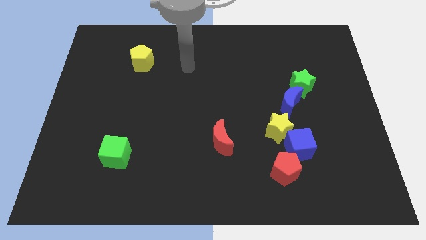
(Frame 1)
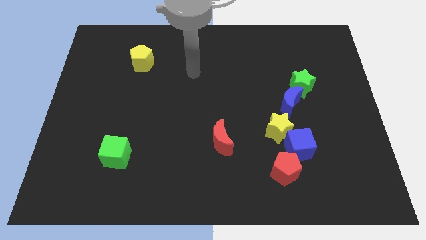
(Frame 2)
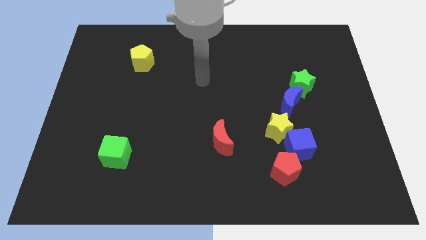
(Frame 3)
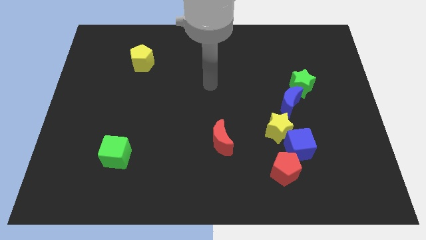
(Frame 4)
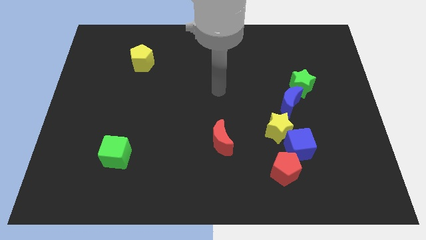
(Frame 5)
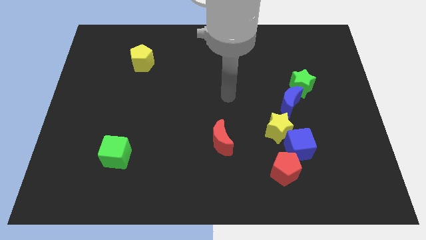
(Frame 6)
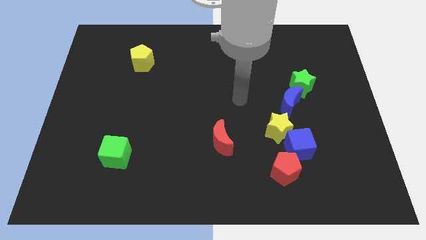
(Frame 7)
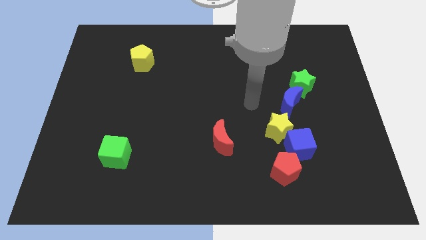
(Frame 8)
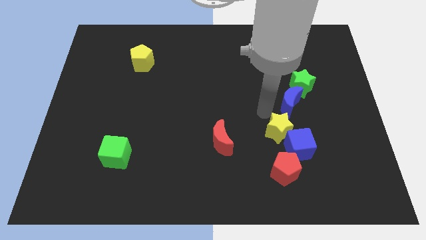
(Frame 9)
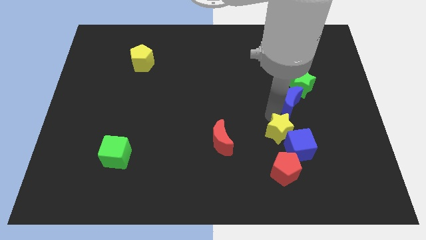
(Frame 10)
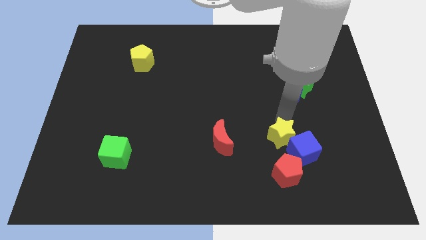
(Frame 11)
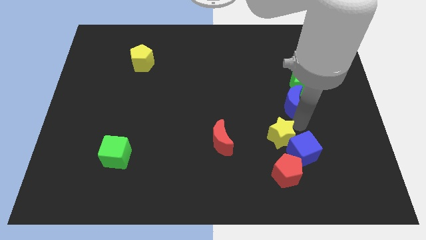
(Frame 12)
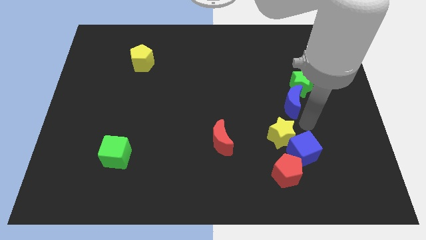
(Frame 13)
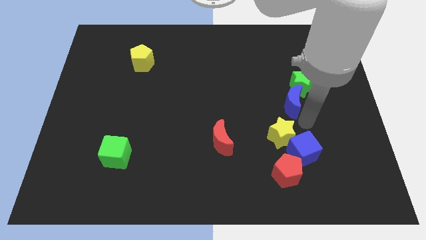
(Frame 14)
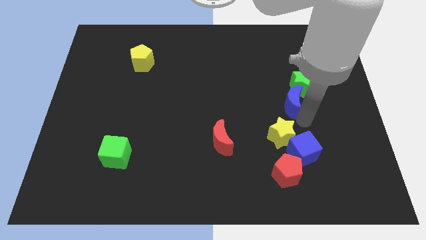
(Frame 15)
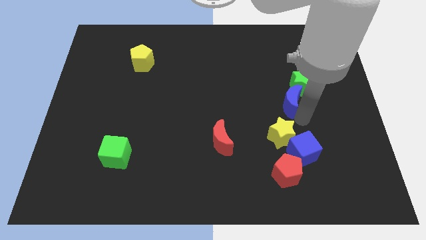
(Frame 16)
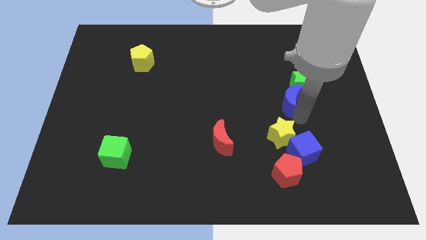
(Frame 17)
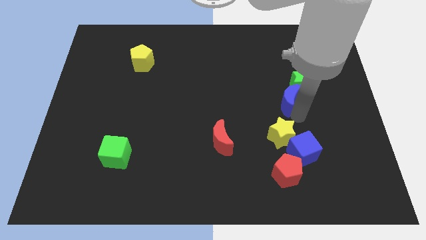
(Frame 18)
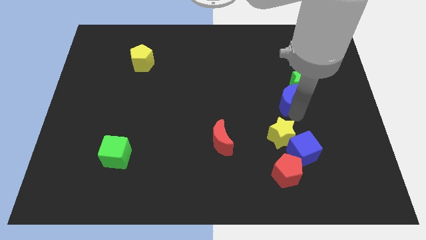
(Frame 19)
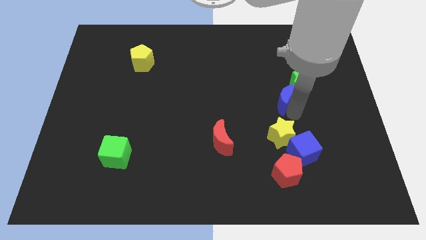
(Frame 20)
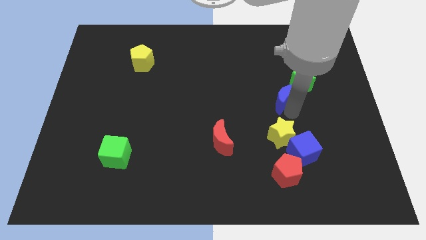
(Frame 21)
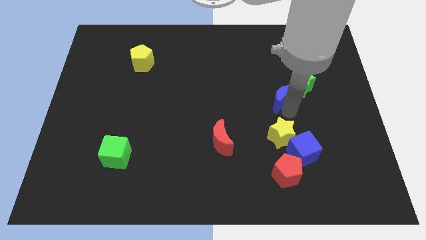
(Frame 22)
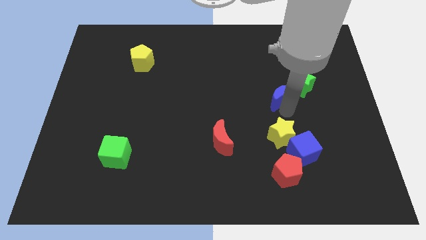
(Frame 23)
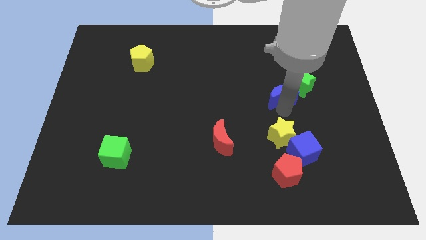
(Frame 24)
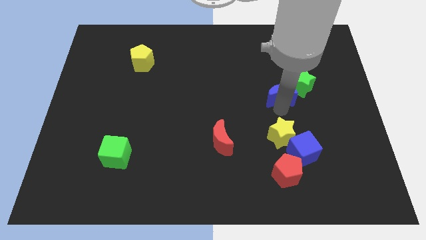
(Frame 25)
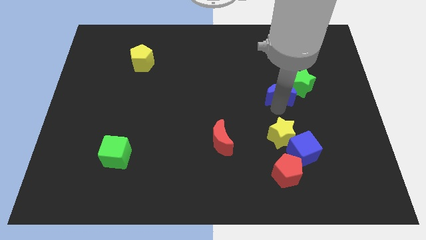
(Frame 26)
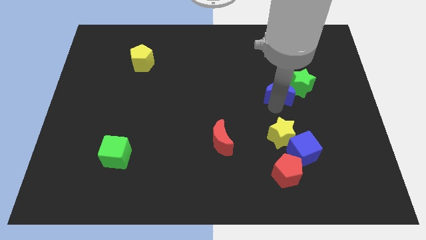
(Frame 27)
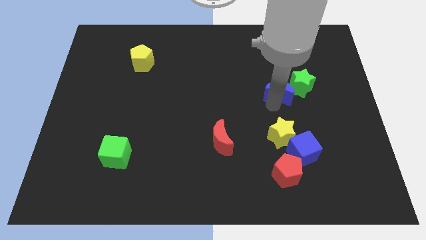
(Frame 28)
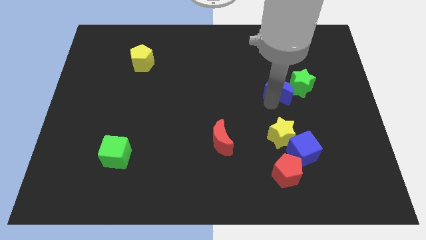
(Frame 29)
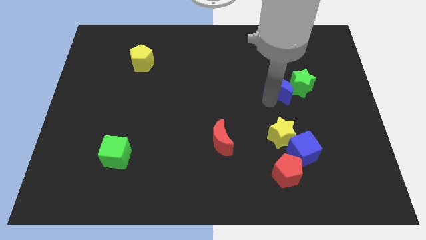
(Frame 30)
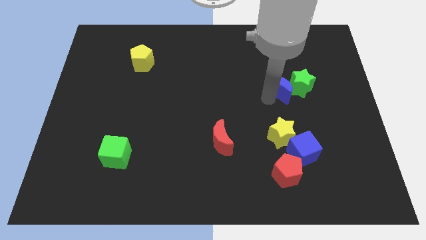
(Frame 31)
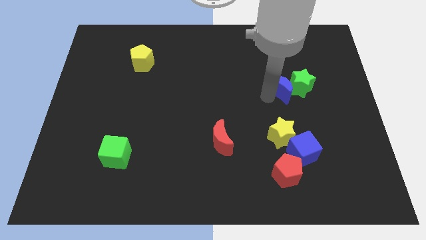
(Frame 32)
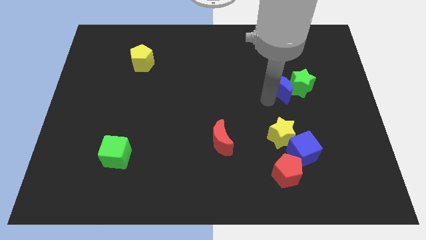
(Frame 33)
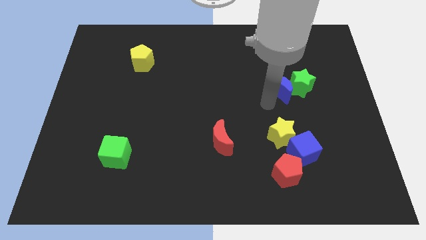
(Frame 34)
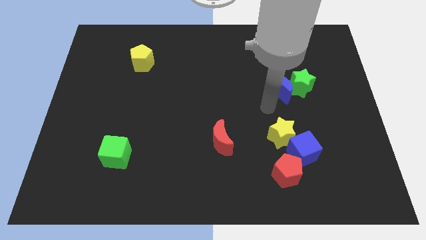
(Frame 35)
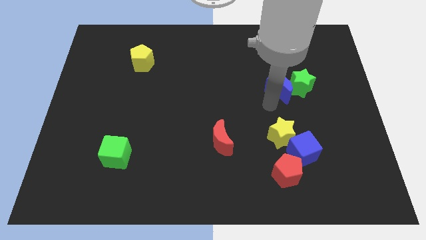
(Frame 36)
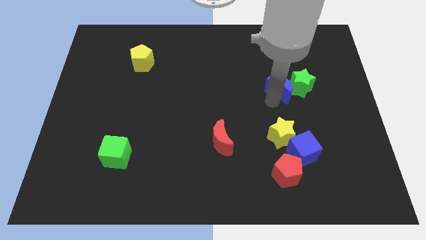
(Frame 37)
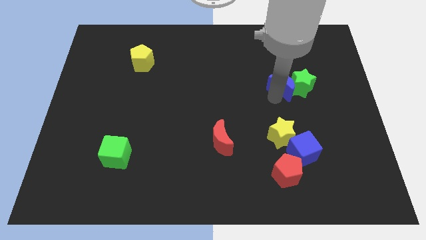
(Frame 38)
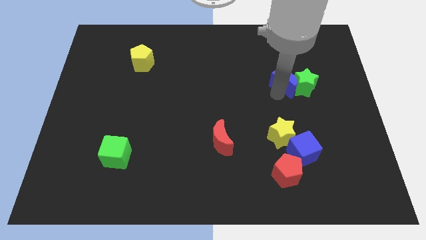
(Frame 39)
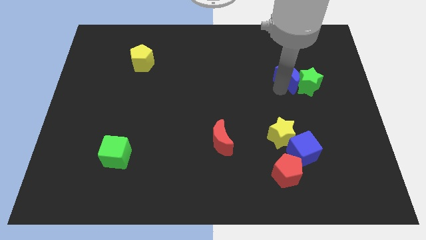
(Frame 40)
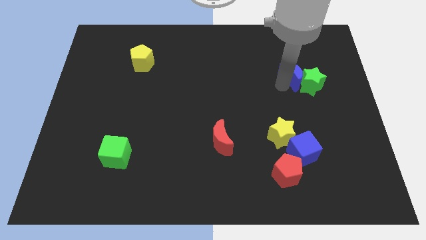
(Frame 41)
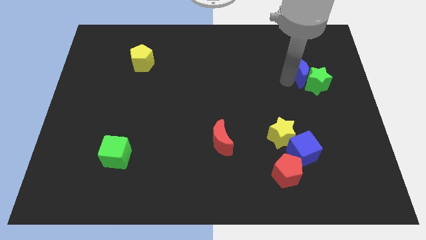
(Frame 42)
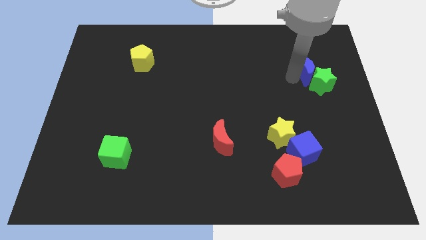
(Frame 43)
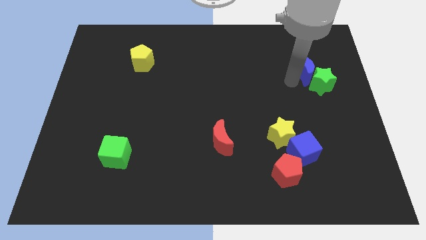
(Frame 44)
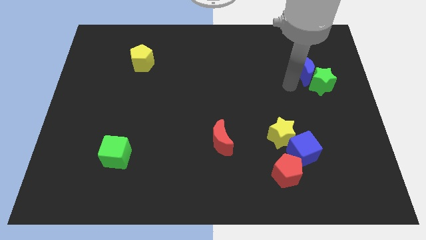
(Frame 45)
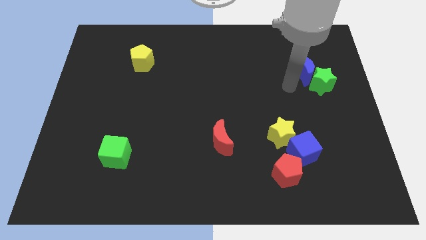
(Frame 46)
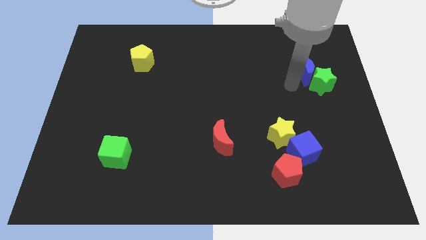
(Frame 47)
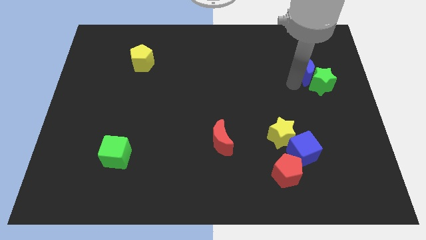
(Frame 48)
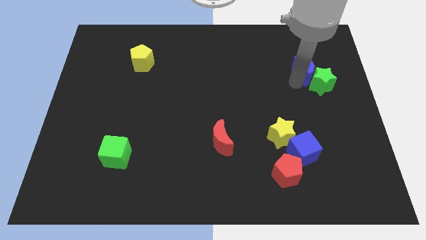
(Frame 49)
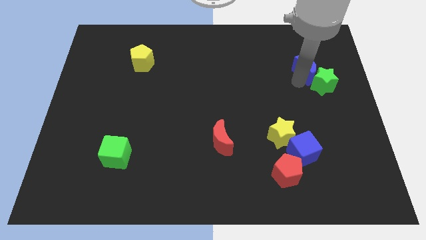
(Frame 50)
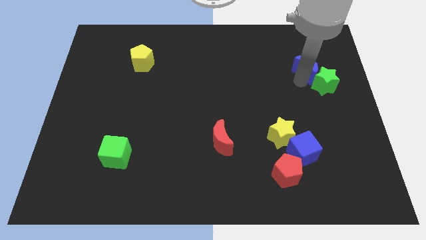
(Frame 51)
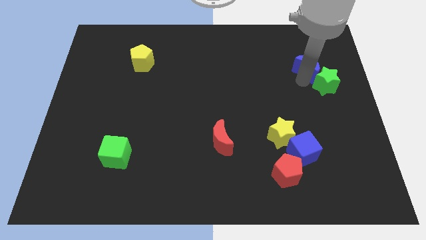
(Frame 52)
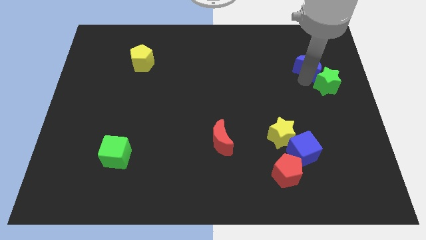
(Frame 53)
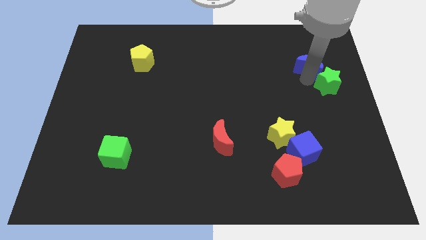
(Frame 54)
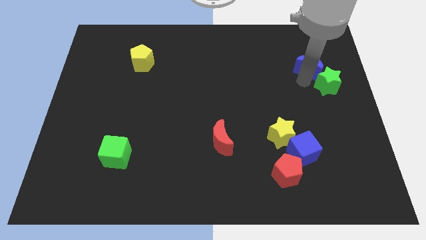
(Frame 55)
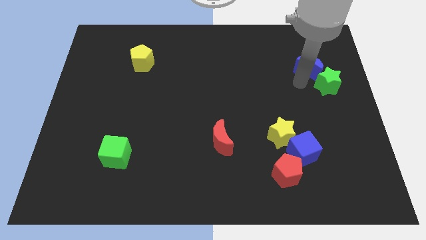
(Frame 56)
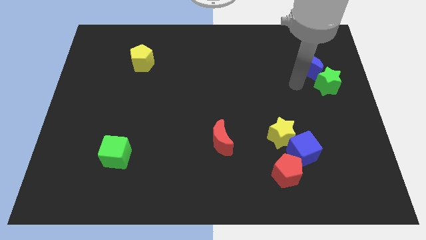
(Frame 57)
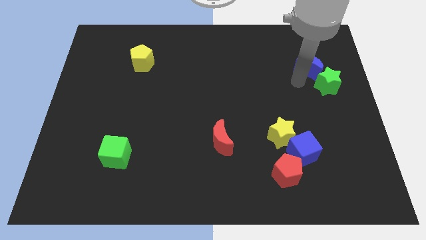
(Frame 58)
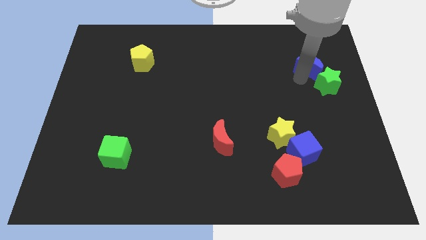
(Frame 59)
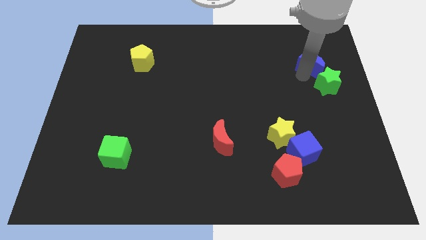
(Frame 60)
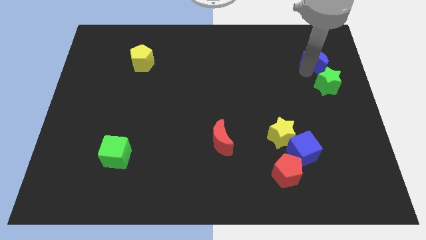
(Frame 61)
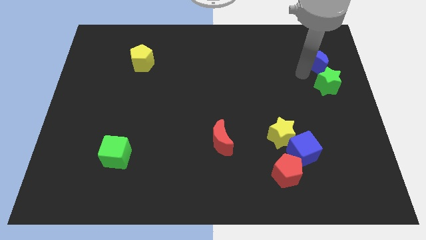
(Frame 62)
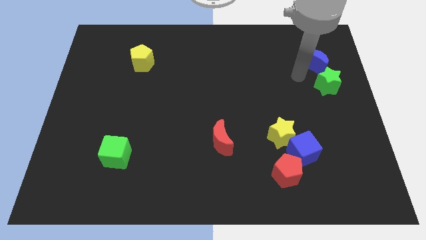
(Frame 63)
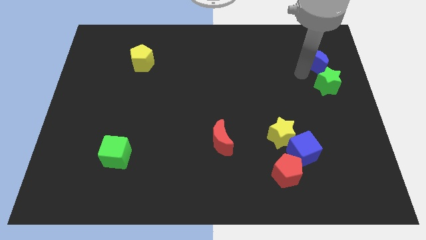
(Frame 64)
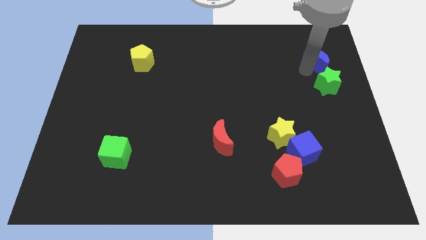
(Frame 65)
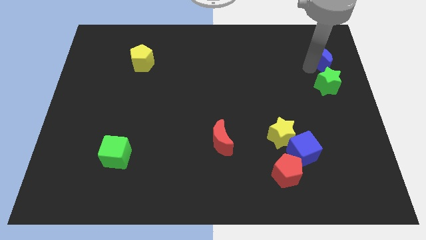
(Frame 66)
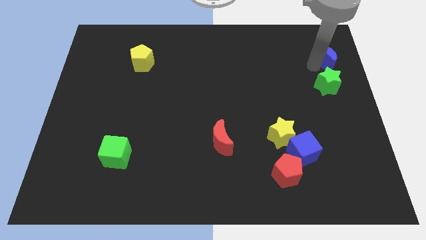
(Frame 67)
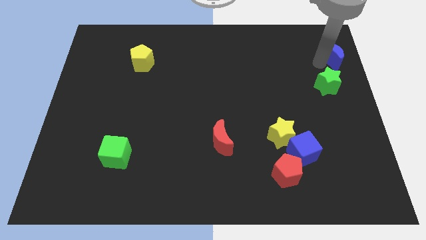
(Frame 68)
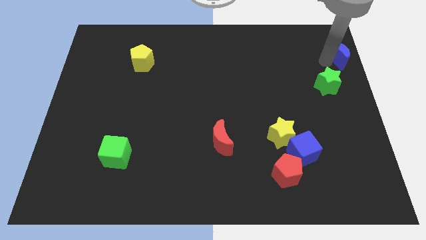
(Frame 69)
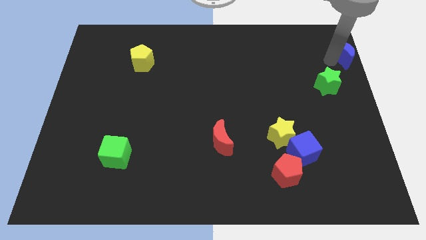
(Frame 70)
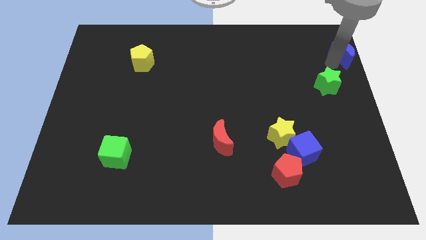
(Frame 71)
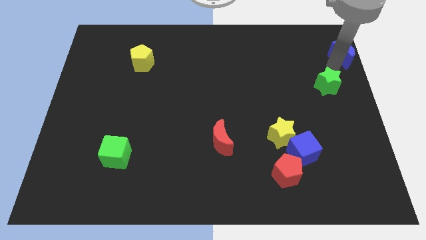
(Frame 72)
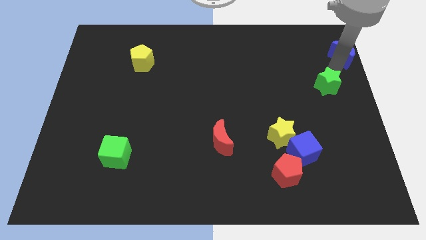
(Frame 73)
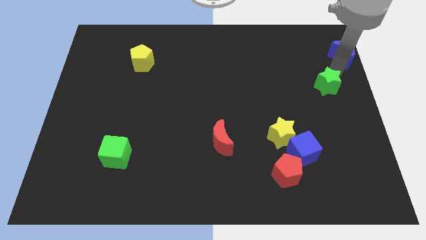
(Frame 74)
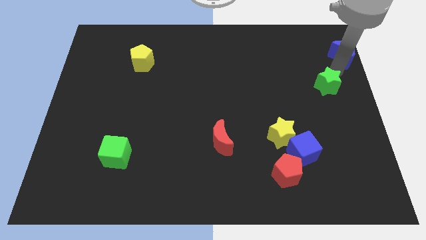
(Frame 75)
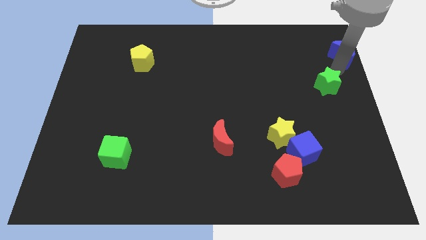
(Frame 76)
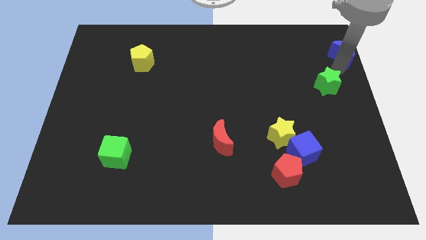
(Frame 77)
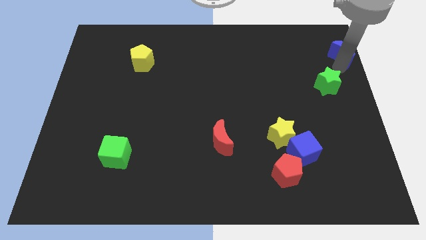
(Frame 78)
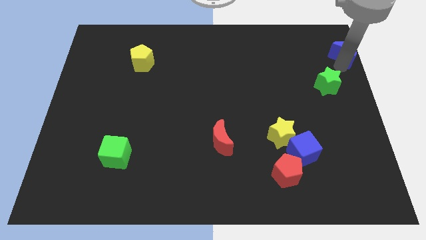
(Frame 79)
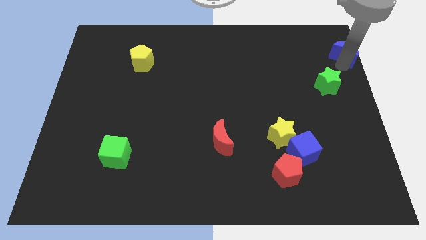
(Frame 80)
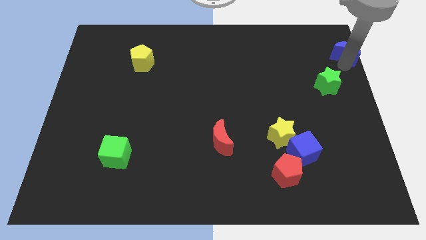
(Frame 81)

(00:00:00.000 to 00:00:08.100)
slide the blue moon to the top right corner
